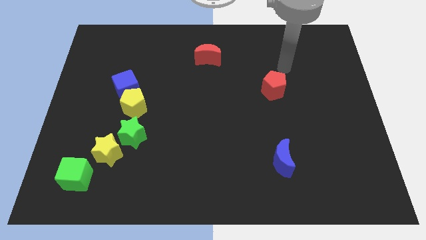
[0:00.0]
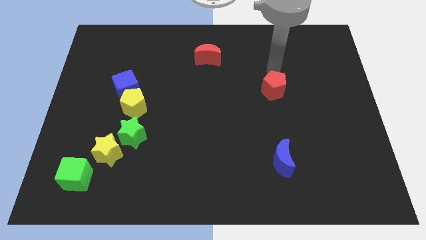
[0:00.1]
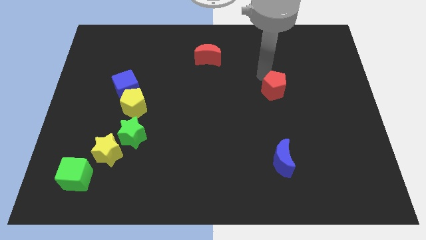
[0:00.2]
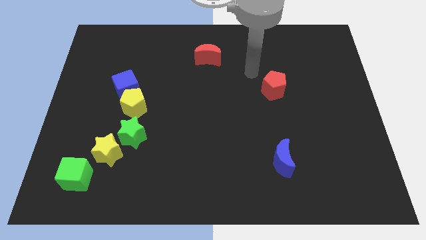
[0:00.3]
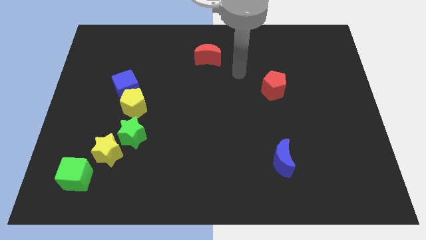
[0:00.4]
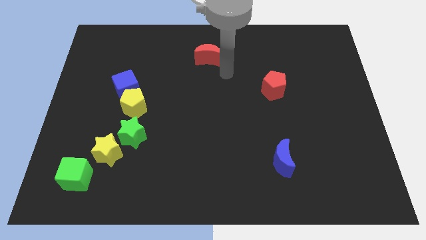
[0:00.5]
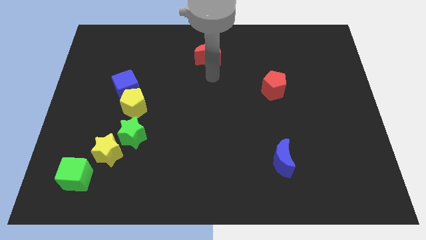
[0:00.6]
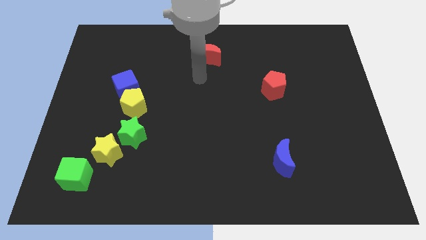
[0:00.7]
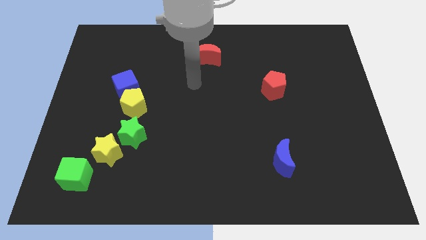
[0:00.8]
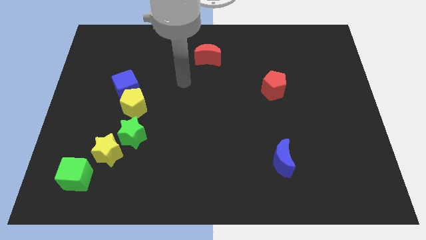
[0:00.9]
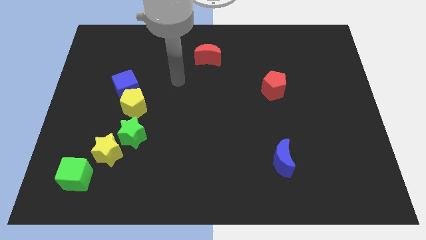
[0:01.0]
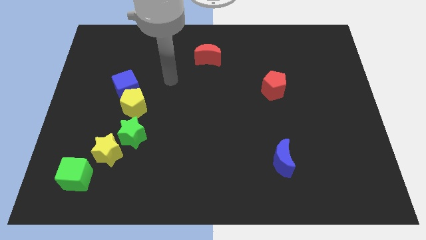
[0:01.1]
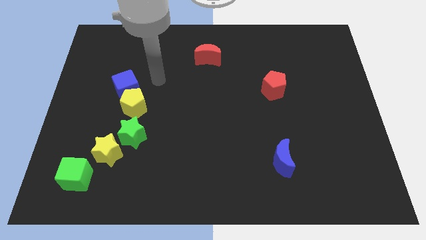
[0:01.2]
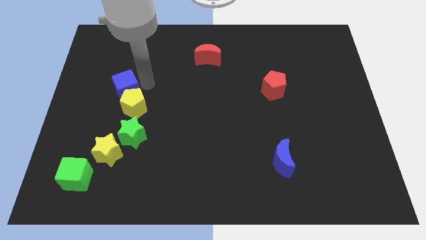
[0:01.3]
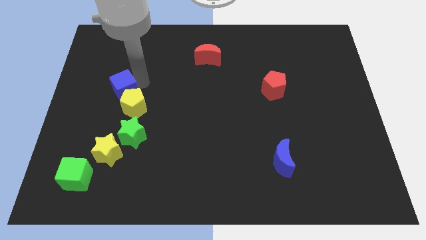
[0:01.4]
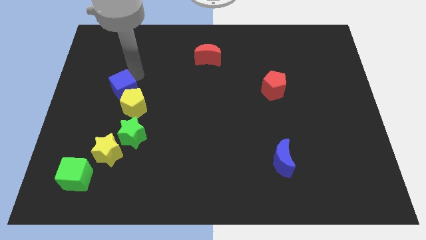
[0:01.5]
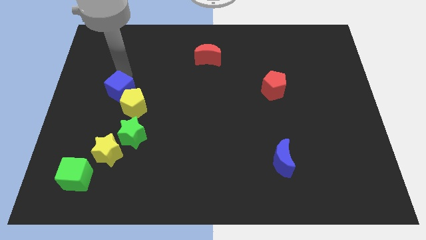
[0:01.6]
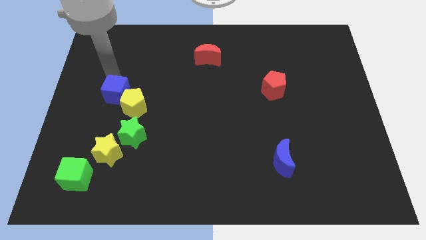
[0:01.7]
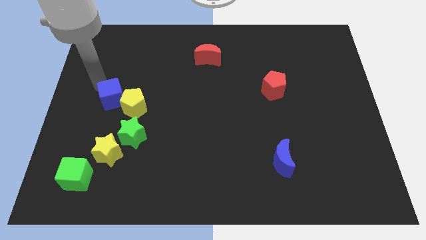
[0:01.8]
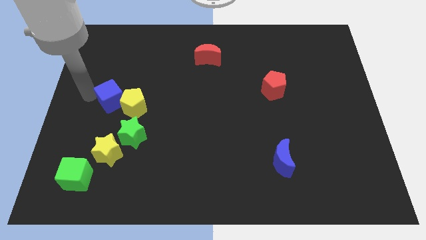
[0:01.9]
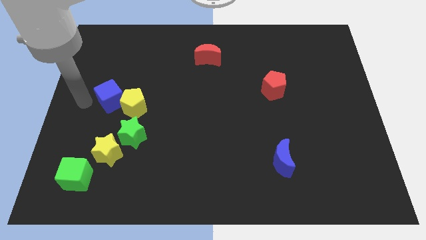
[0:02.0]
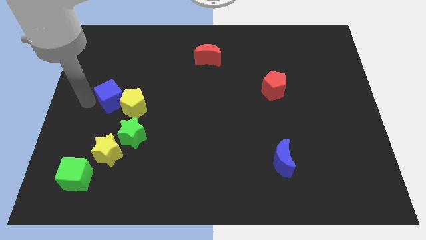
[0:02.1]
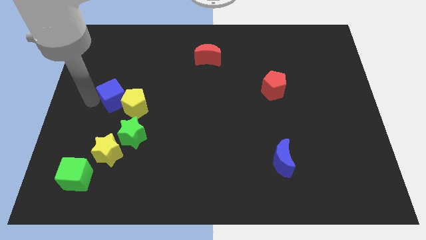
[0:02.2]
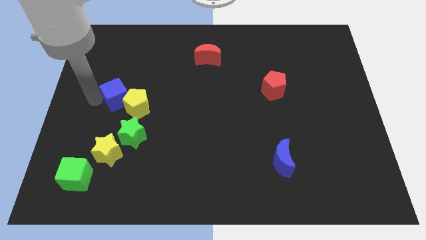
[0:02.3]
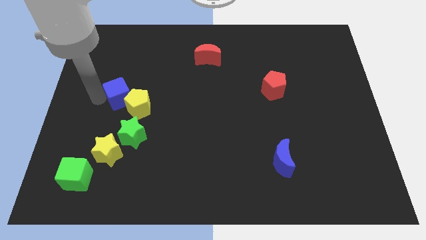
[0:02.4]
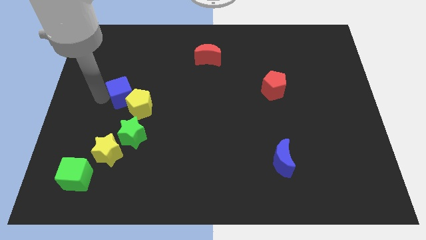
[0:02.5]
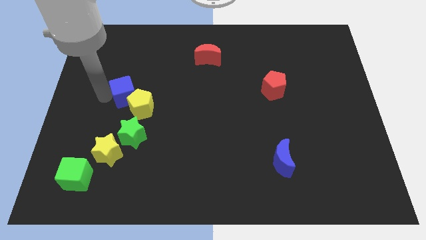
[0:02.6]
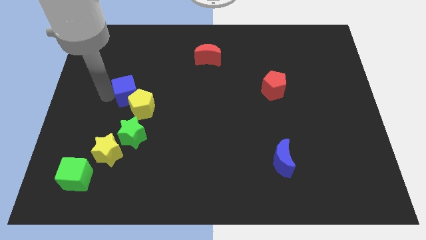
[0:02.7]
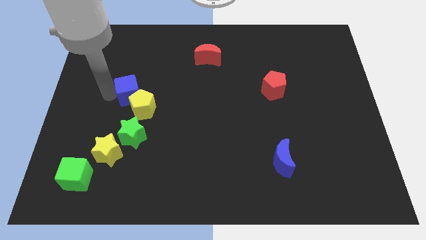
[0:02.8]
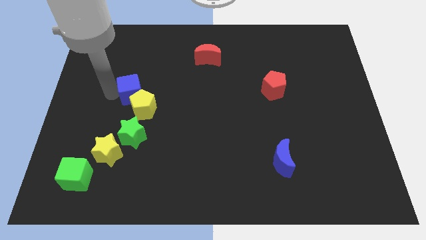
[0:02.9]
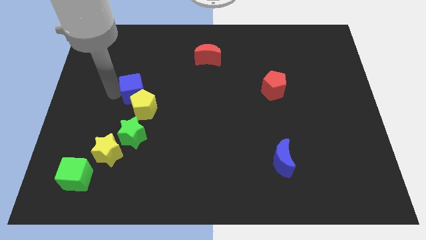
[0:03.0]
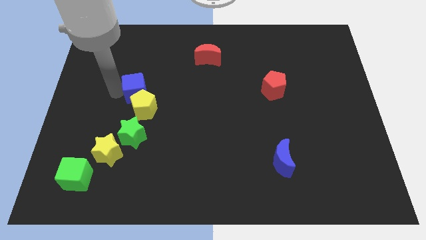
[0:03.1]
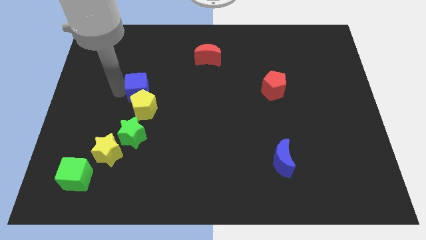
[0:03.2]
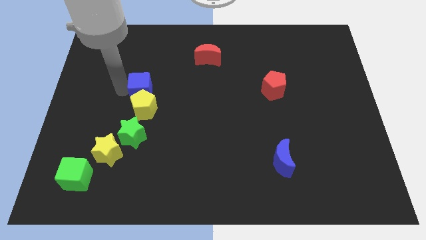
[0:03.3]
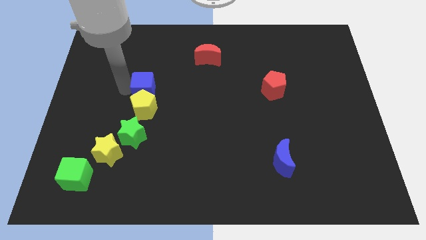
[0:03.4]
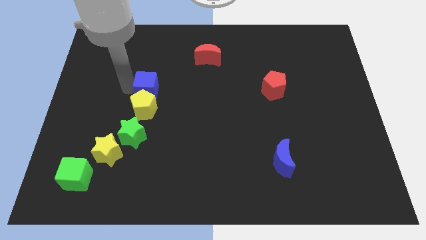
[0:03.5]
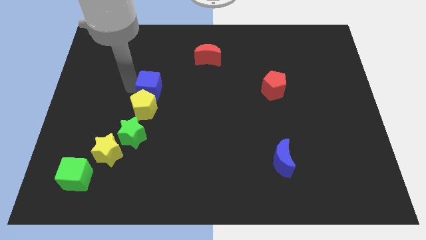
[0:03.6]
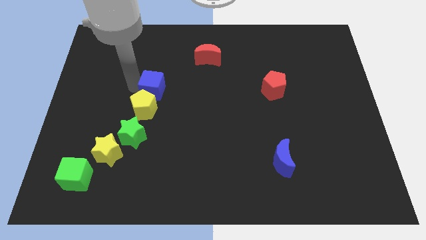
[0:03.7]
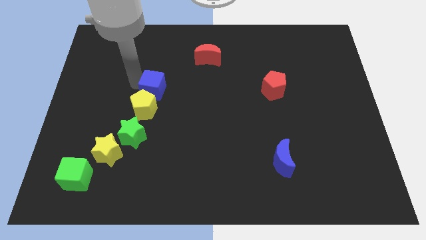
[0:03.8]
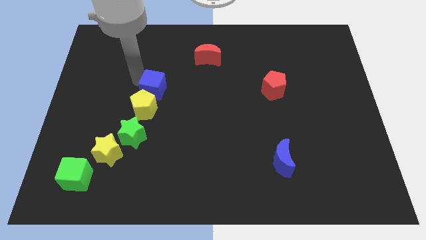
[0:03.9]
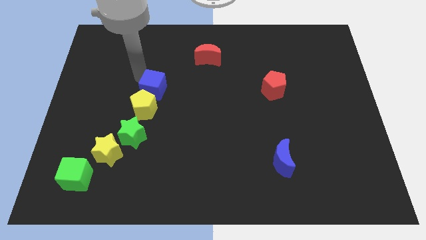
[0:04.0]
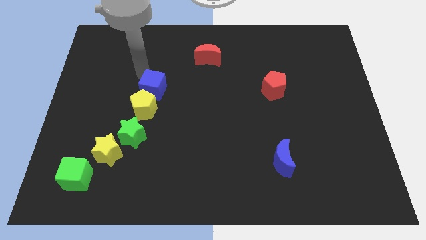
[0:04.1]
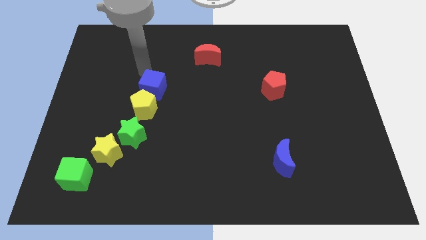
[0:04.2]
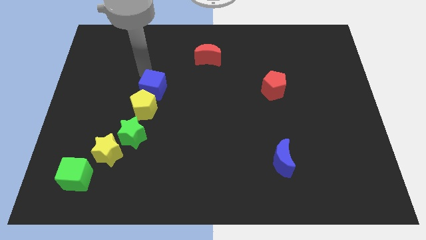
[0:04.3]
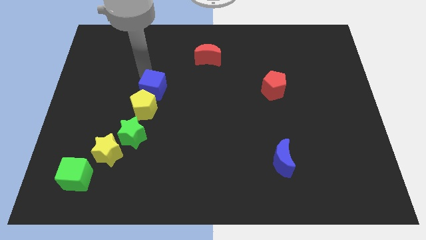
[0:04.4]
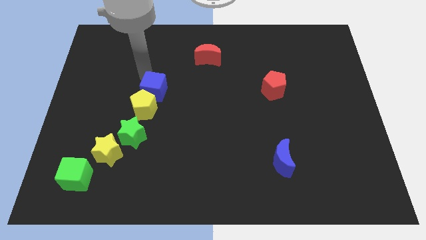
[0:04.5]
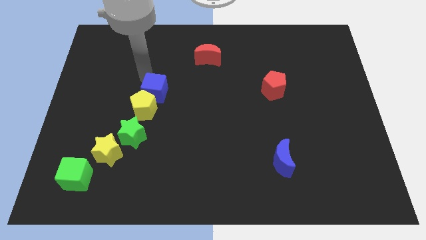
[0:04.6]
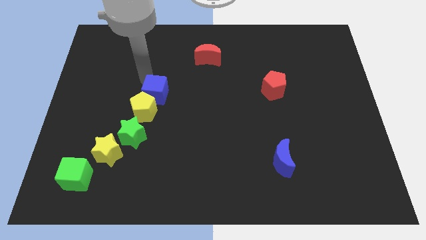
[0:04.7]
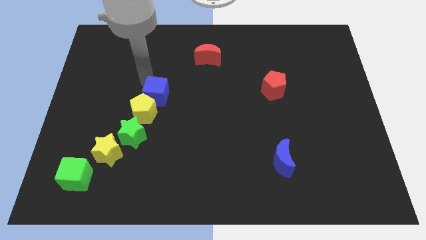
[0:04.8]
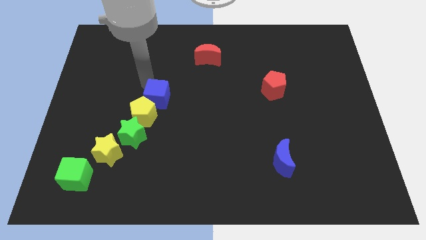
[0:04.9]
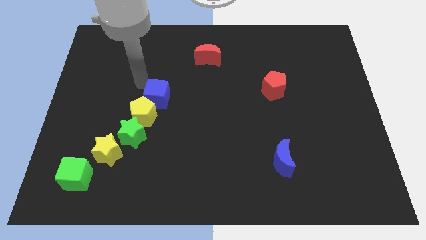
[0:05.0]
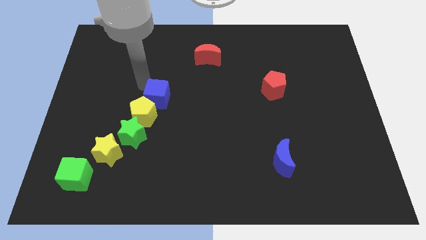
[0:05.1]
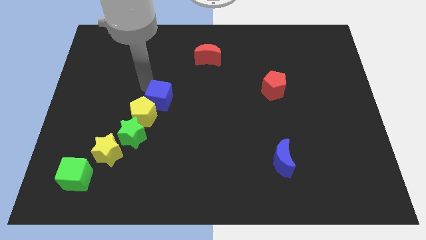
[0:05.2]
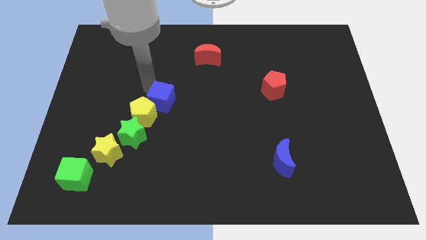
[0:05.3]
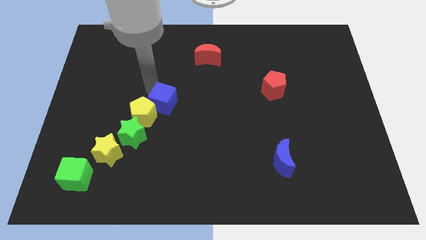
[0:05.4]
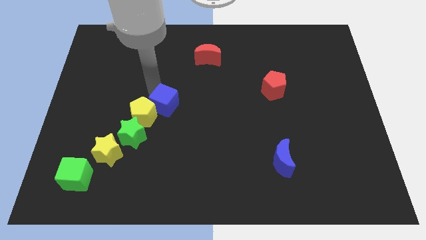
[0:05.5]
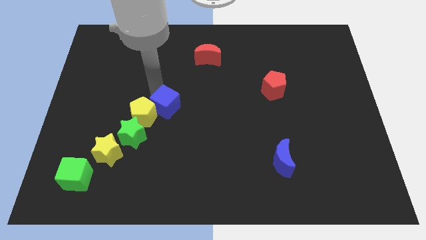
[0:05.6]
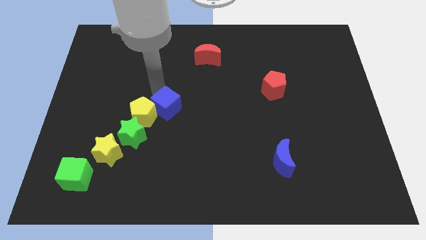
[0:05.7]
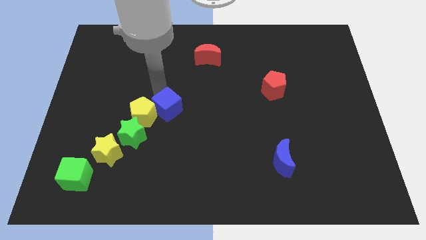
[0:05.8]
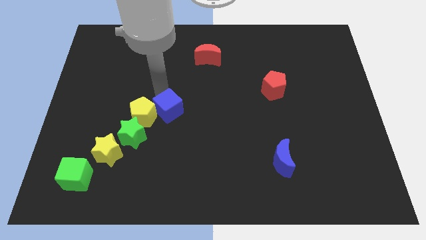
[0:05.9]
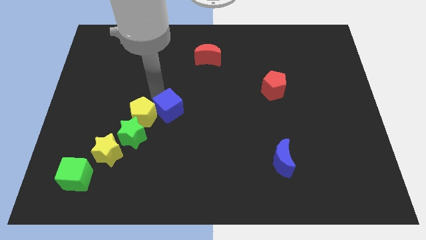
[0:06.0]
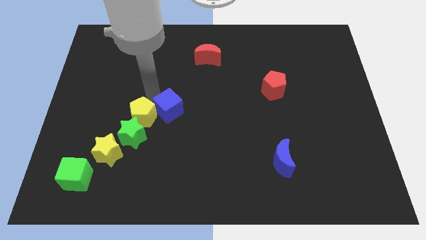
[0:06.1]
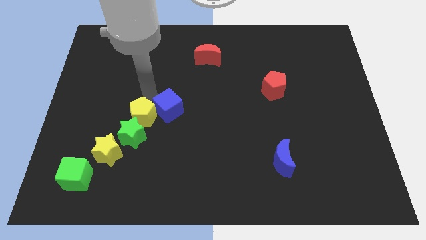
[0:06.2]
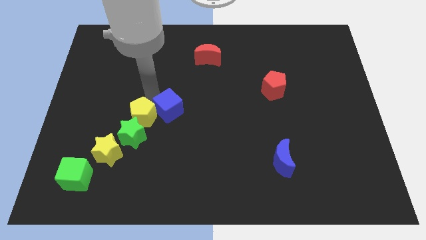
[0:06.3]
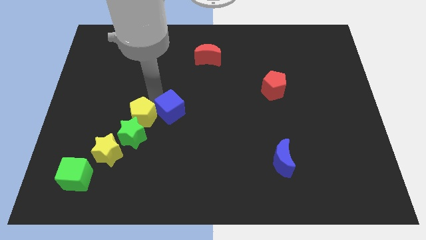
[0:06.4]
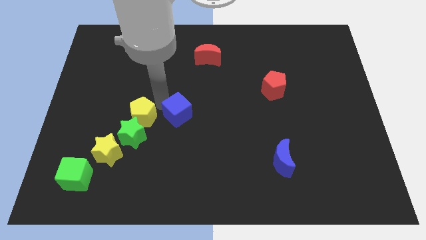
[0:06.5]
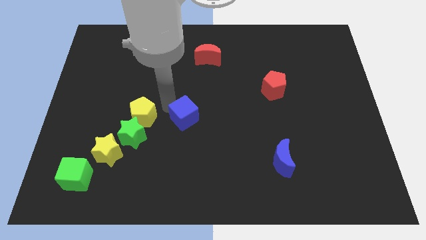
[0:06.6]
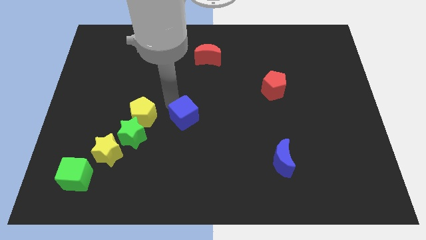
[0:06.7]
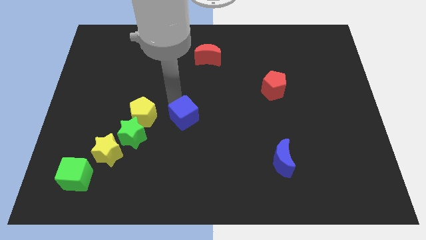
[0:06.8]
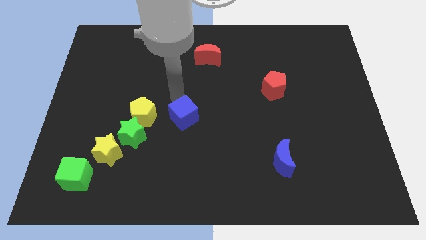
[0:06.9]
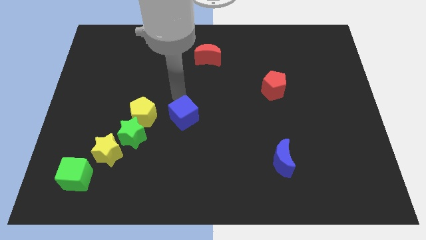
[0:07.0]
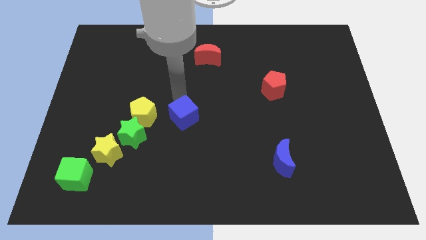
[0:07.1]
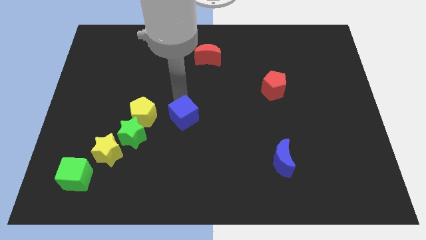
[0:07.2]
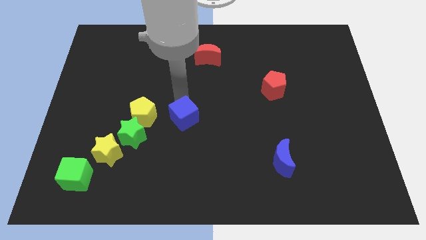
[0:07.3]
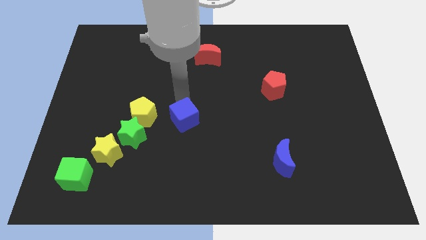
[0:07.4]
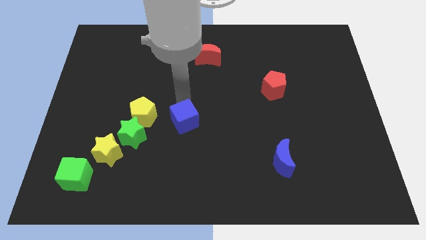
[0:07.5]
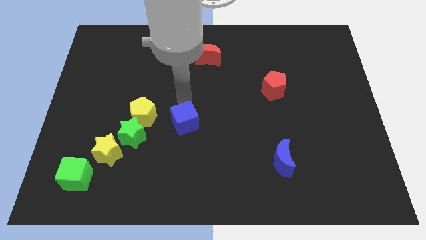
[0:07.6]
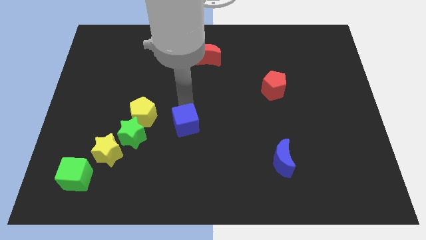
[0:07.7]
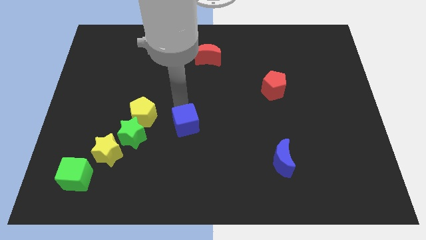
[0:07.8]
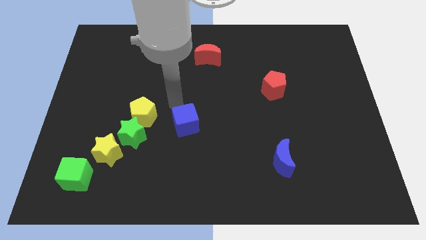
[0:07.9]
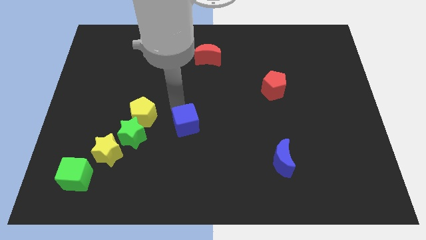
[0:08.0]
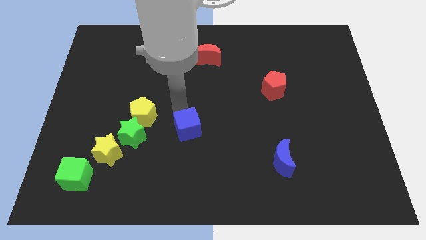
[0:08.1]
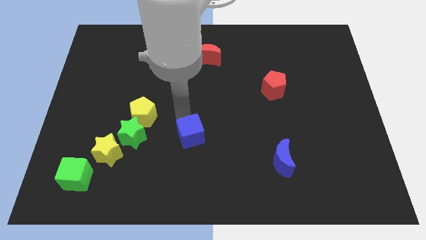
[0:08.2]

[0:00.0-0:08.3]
move the blue cube downwards and right
